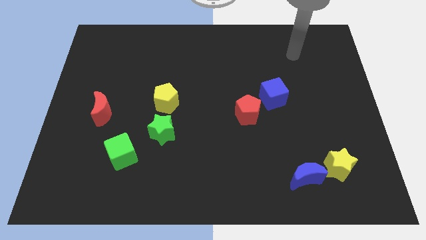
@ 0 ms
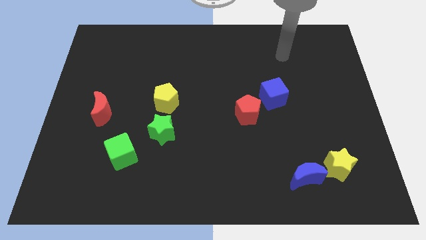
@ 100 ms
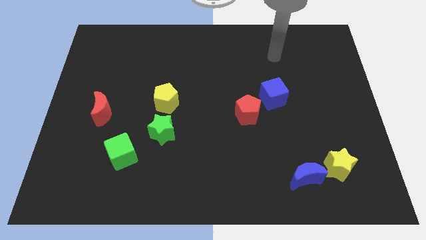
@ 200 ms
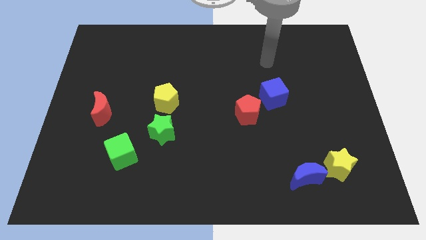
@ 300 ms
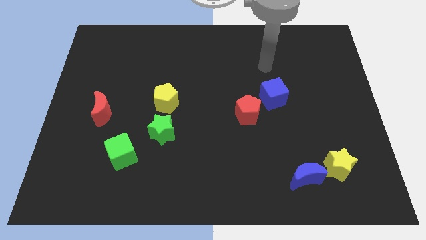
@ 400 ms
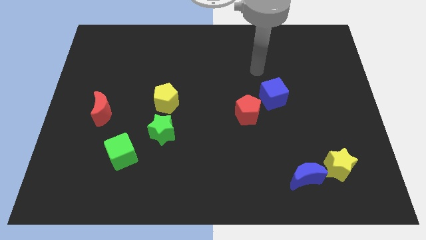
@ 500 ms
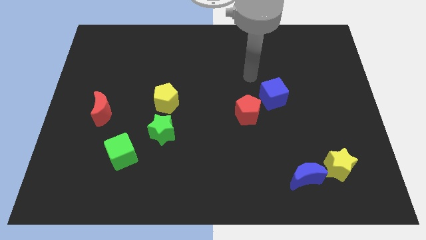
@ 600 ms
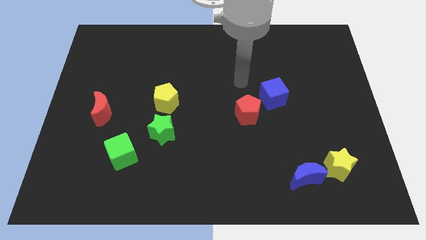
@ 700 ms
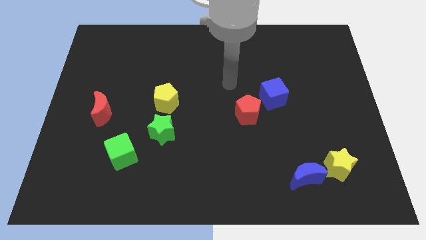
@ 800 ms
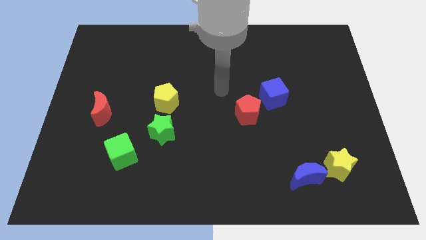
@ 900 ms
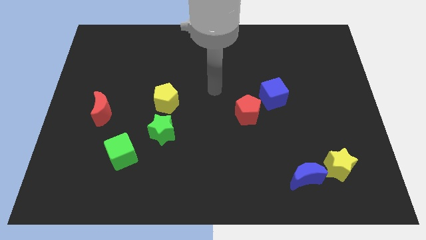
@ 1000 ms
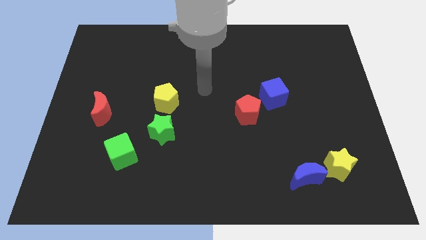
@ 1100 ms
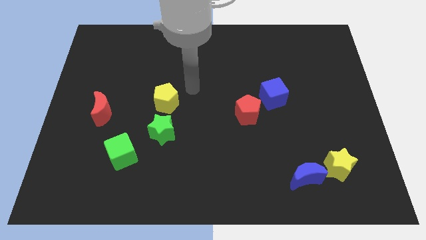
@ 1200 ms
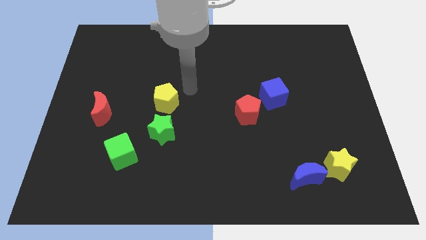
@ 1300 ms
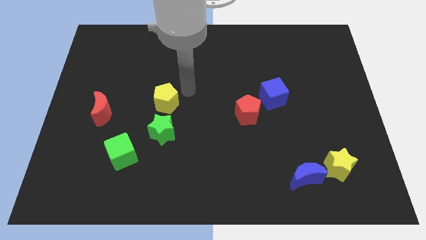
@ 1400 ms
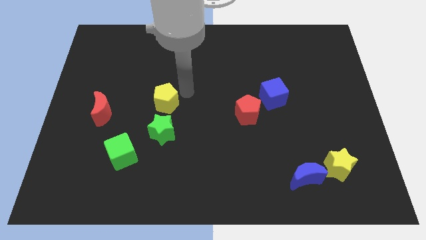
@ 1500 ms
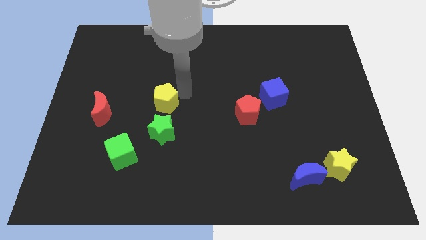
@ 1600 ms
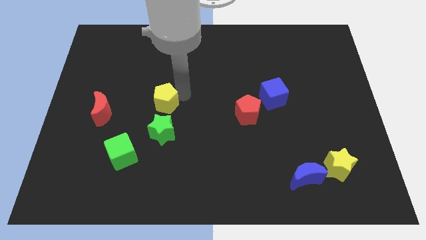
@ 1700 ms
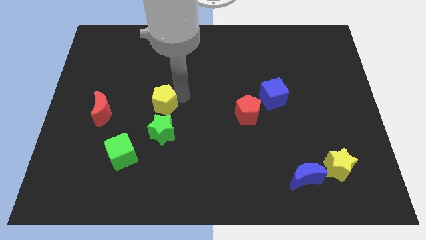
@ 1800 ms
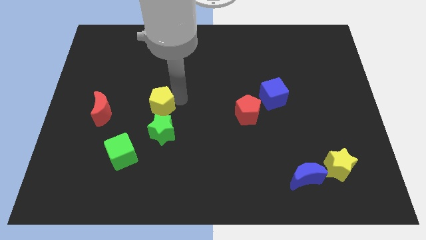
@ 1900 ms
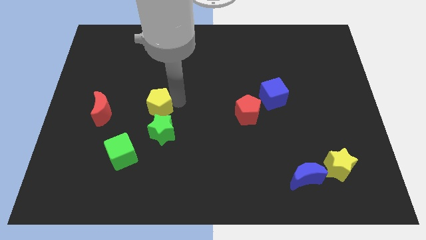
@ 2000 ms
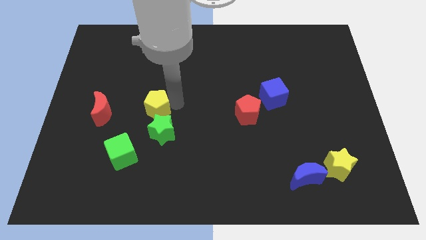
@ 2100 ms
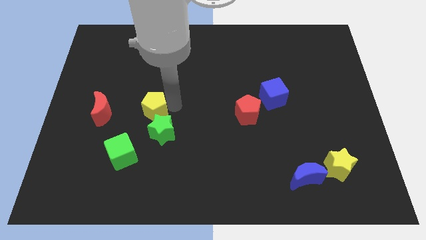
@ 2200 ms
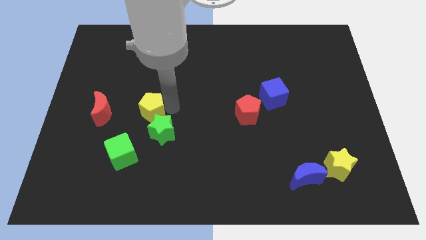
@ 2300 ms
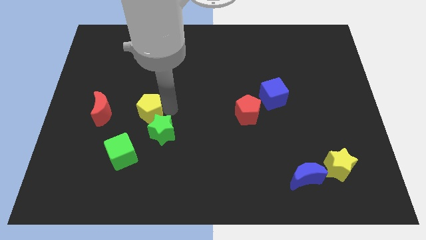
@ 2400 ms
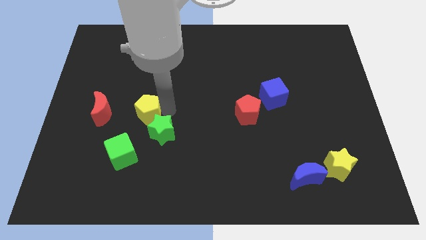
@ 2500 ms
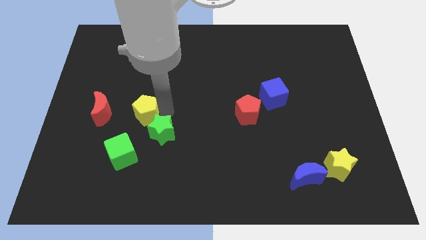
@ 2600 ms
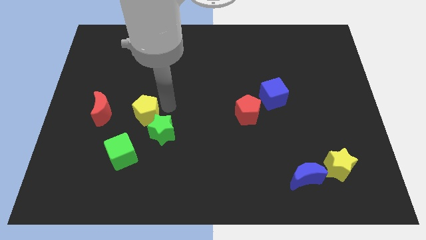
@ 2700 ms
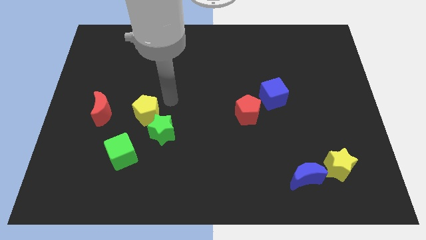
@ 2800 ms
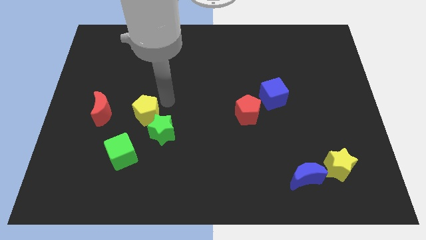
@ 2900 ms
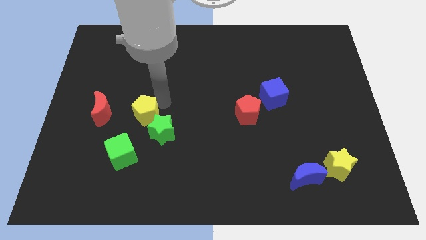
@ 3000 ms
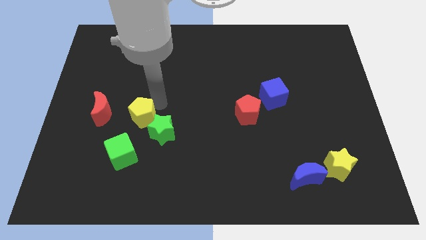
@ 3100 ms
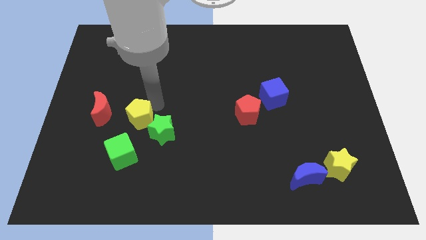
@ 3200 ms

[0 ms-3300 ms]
slightly slide the yellow pentagon down and then left

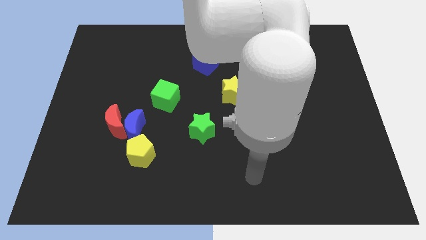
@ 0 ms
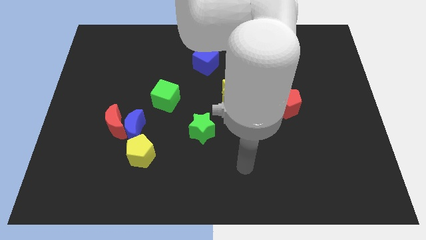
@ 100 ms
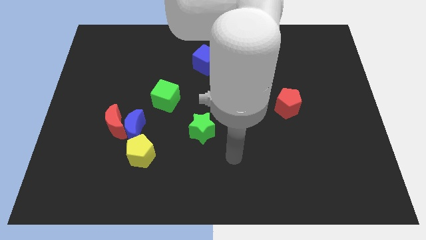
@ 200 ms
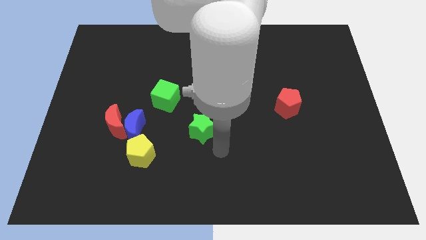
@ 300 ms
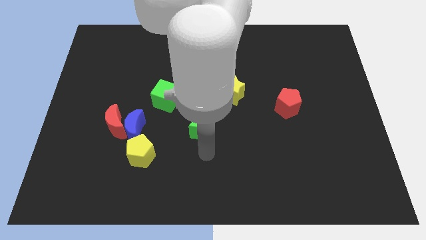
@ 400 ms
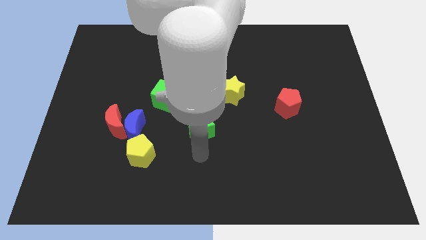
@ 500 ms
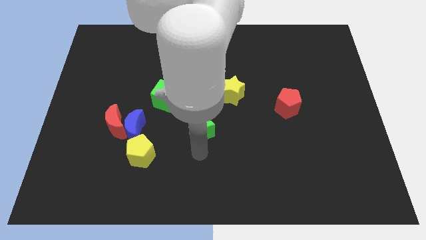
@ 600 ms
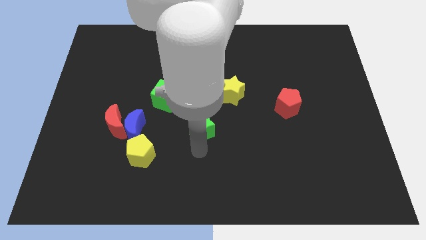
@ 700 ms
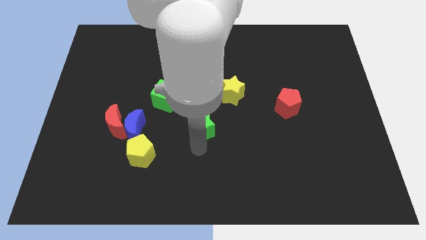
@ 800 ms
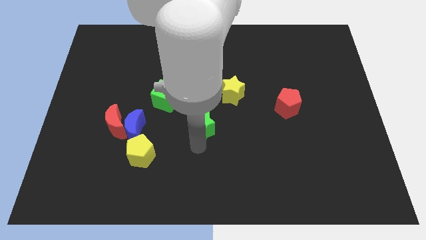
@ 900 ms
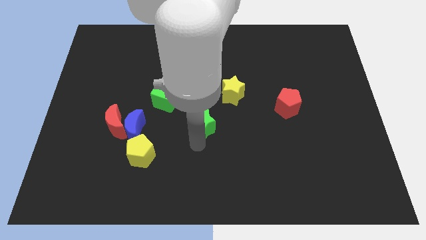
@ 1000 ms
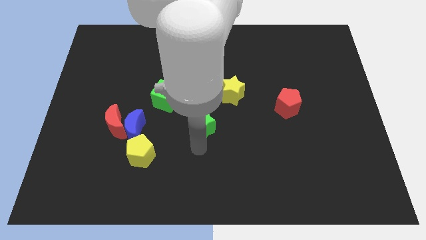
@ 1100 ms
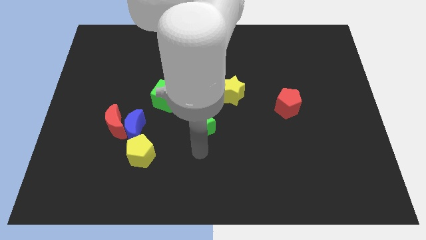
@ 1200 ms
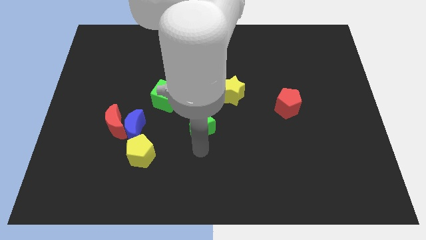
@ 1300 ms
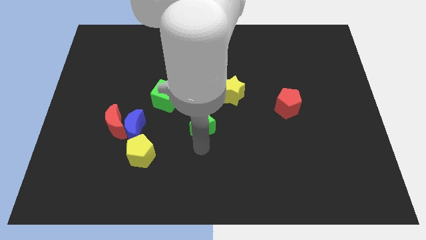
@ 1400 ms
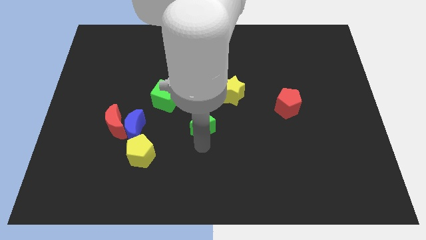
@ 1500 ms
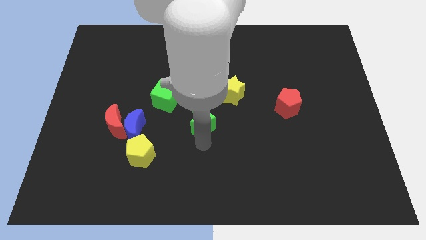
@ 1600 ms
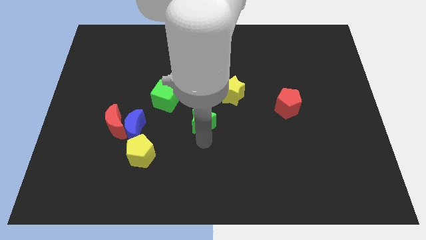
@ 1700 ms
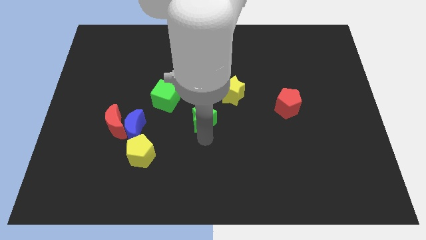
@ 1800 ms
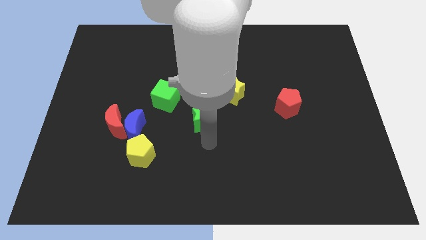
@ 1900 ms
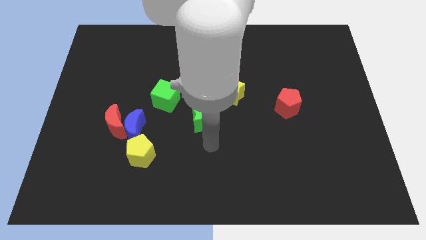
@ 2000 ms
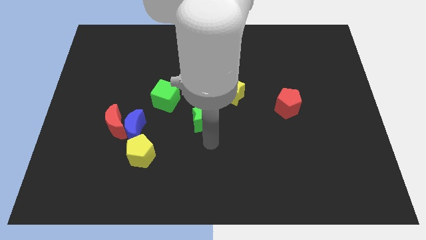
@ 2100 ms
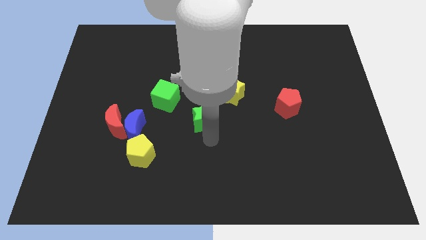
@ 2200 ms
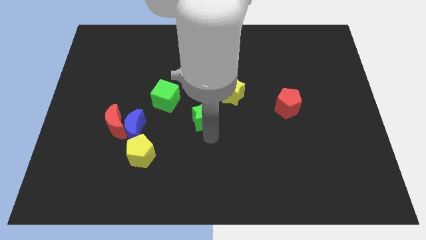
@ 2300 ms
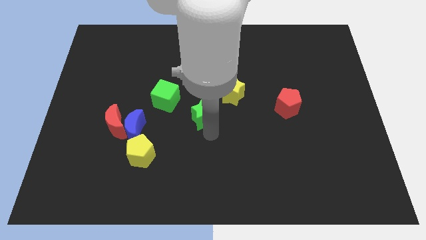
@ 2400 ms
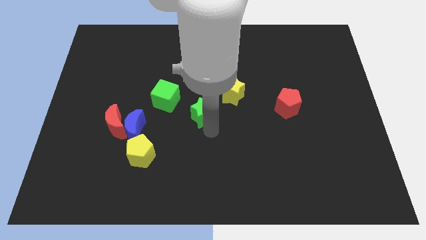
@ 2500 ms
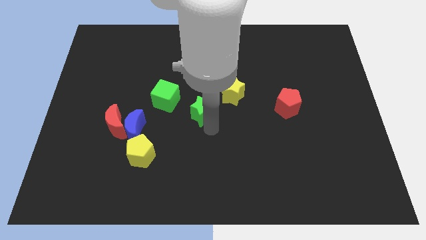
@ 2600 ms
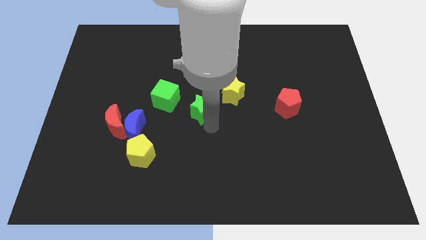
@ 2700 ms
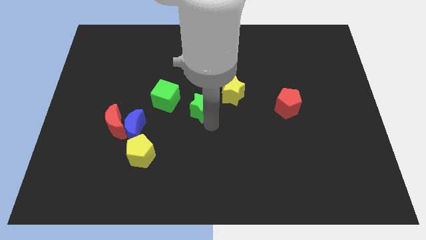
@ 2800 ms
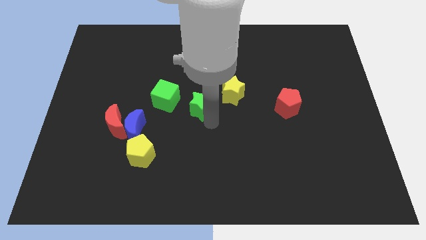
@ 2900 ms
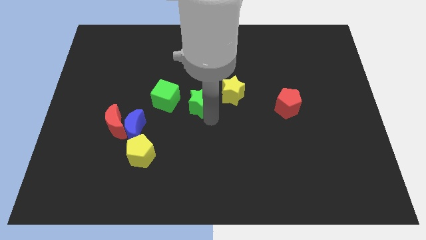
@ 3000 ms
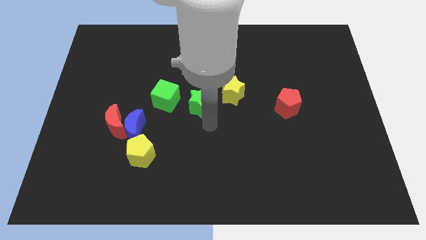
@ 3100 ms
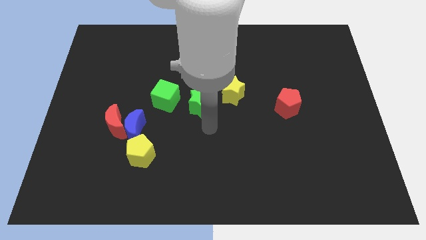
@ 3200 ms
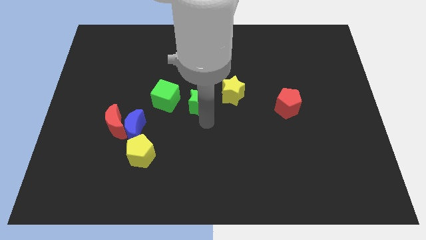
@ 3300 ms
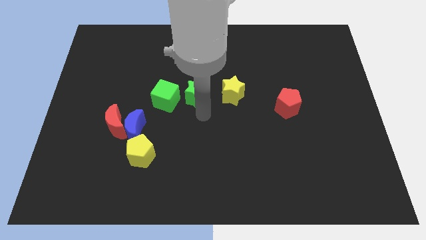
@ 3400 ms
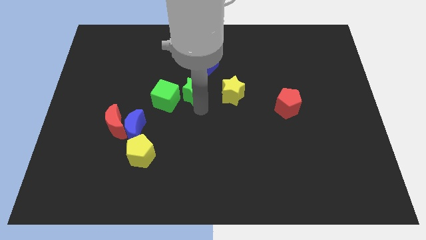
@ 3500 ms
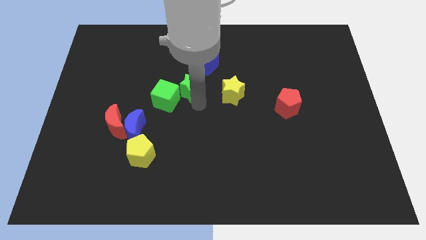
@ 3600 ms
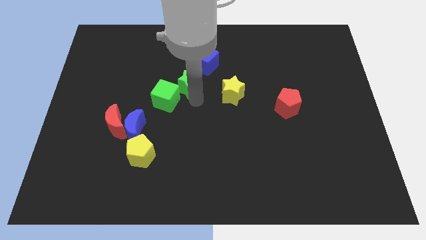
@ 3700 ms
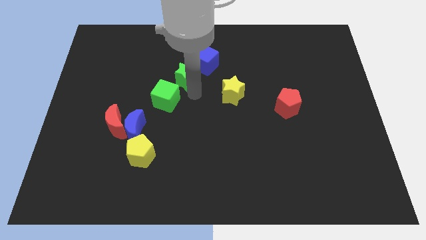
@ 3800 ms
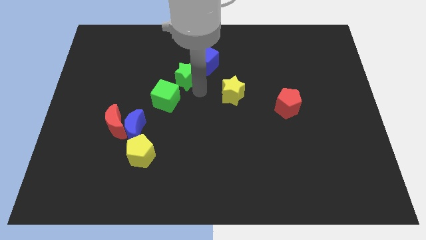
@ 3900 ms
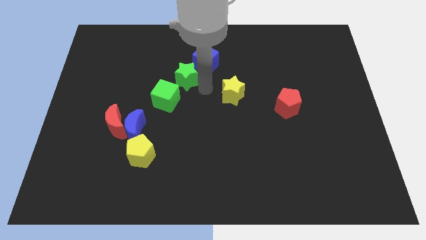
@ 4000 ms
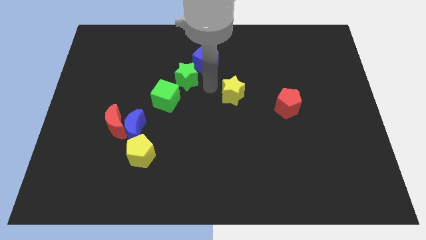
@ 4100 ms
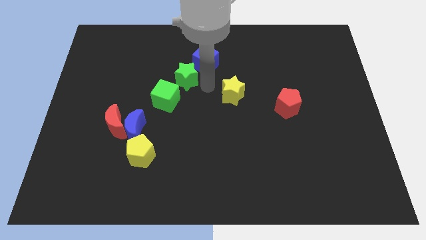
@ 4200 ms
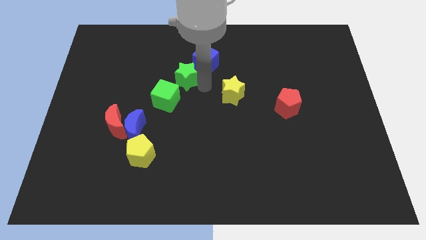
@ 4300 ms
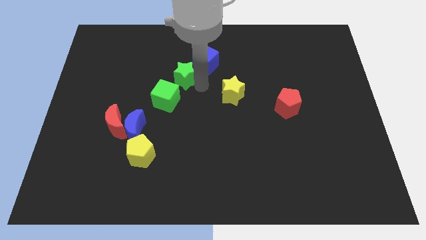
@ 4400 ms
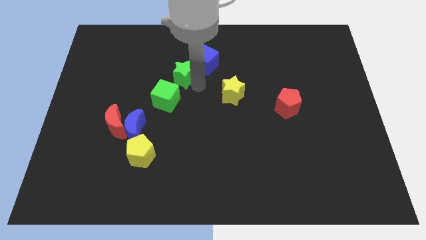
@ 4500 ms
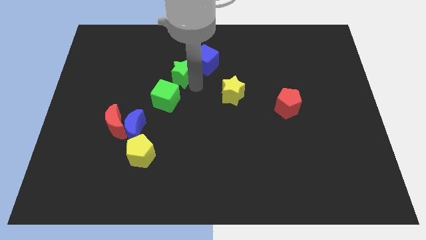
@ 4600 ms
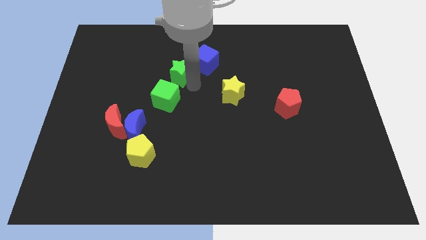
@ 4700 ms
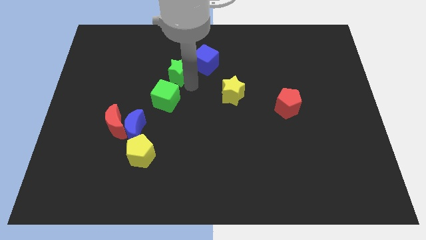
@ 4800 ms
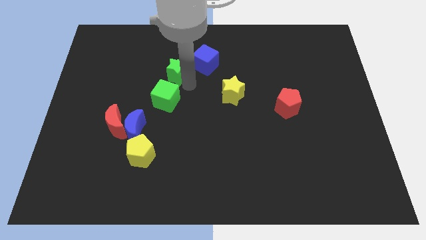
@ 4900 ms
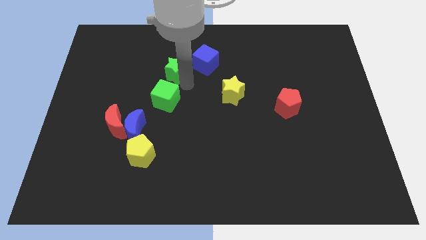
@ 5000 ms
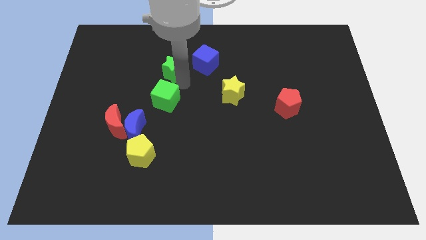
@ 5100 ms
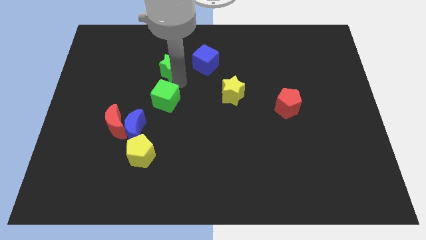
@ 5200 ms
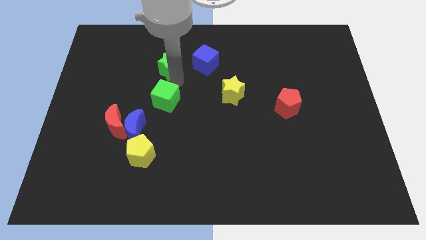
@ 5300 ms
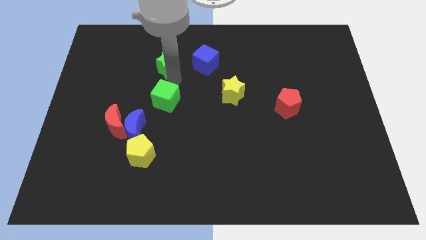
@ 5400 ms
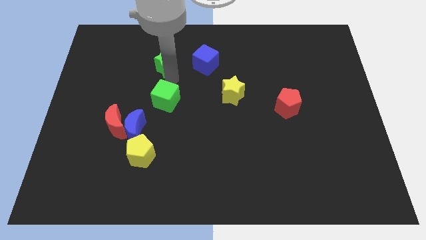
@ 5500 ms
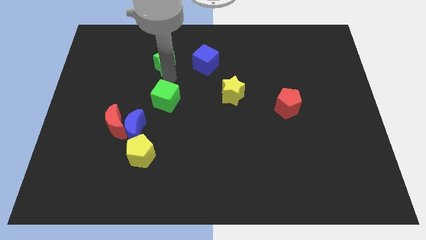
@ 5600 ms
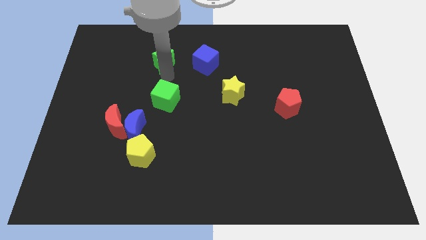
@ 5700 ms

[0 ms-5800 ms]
push the green star diagonally upwards and to the left
